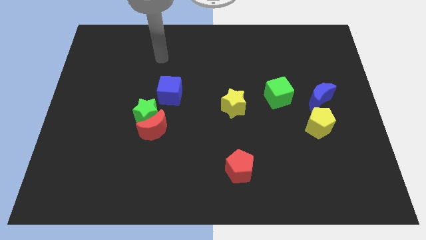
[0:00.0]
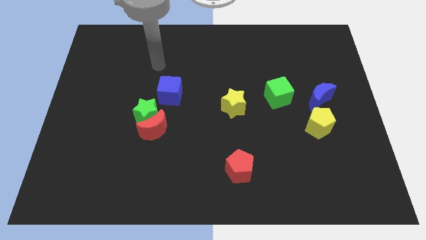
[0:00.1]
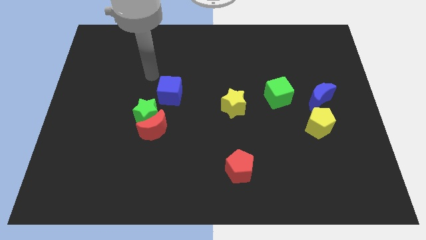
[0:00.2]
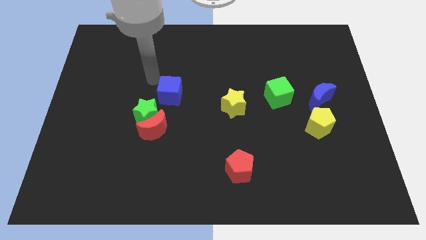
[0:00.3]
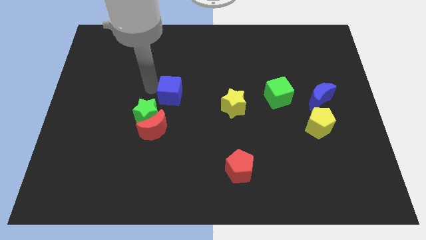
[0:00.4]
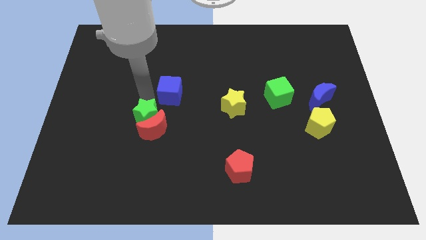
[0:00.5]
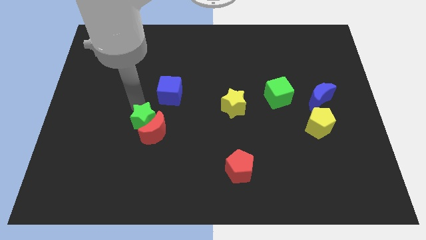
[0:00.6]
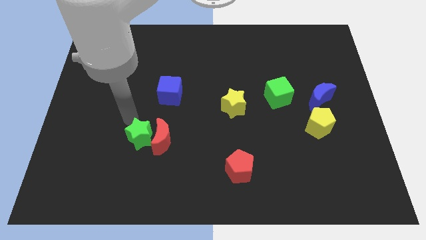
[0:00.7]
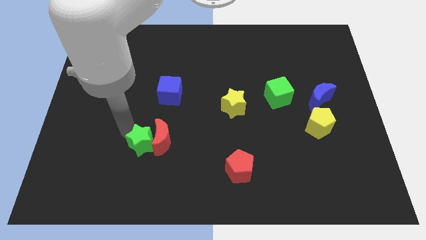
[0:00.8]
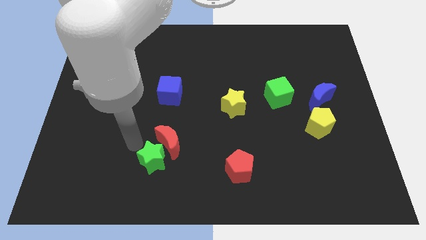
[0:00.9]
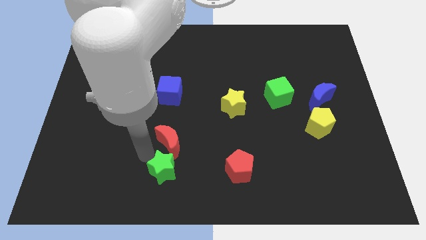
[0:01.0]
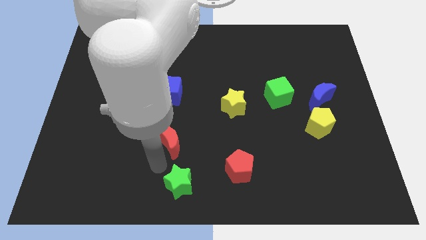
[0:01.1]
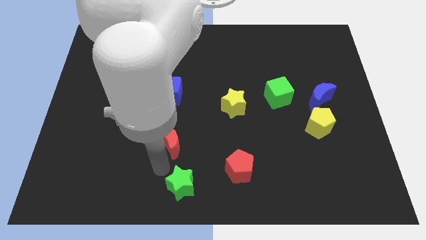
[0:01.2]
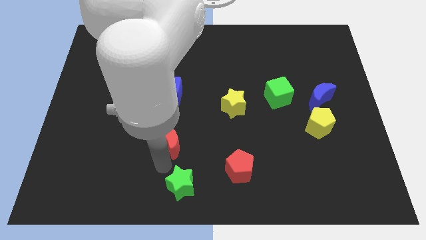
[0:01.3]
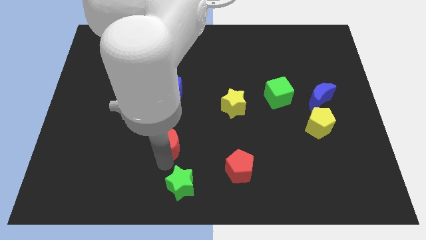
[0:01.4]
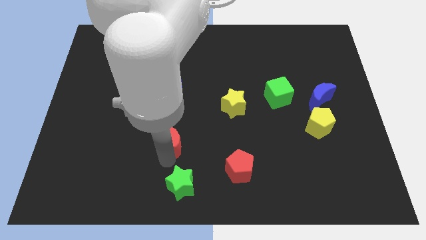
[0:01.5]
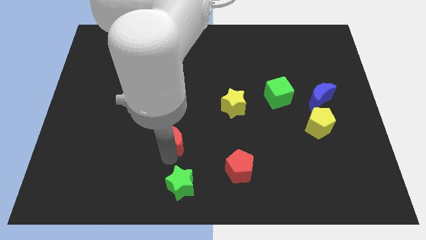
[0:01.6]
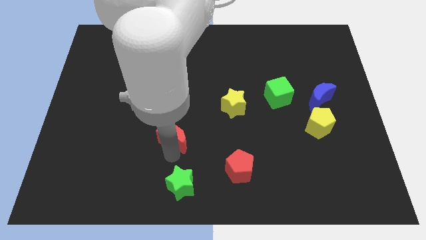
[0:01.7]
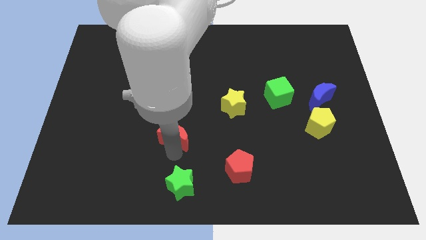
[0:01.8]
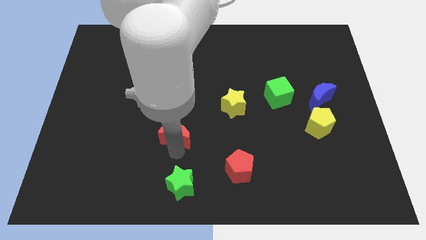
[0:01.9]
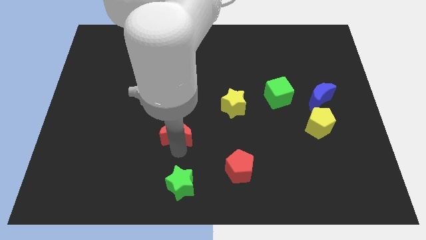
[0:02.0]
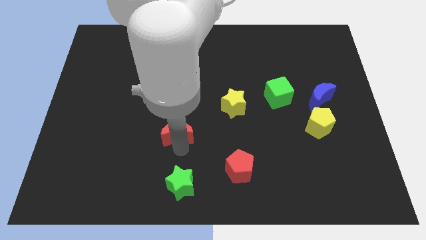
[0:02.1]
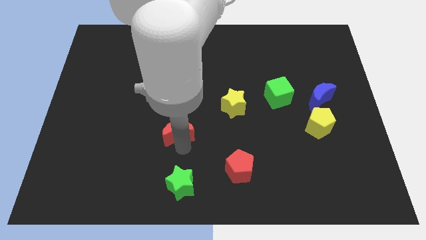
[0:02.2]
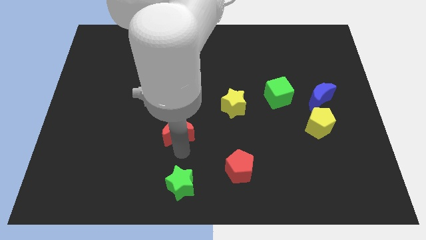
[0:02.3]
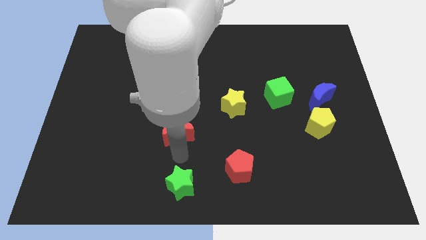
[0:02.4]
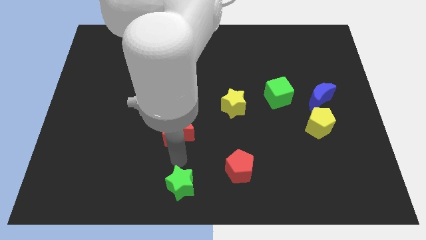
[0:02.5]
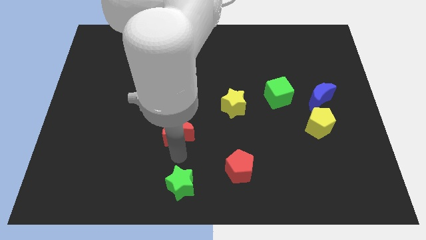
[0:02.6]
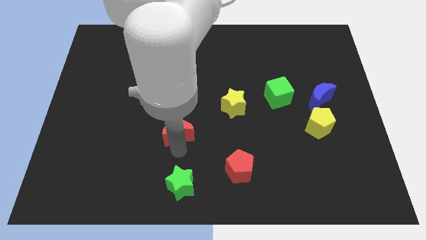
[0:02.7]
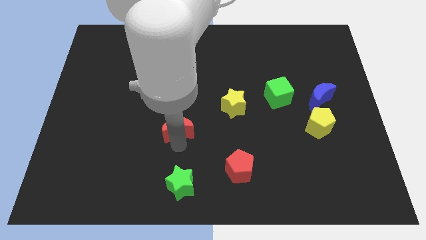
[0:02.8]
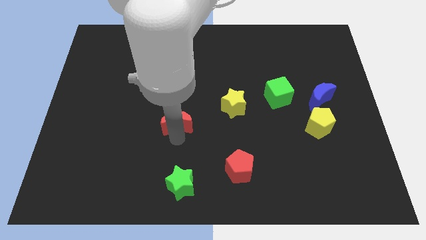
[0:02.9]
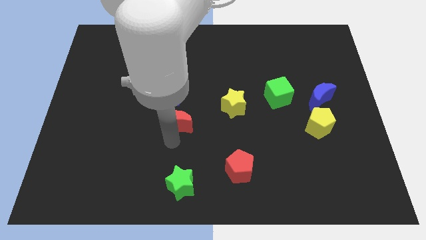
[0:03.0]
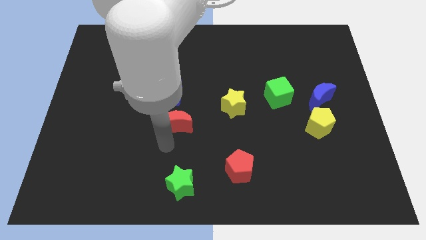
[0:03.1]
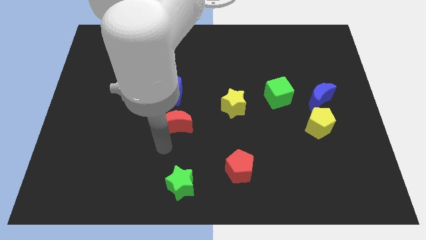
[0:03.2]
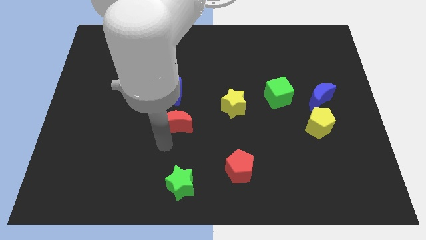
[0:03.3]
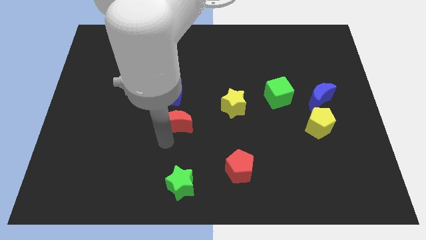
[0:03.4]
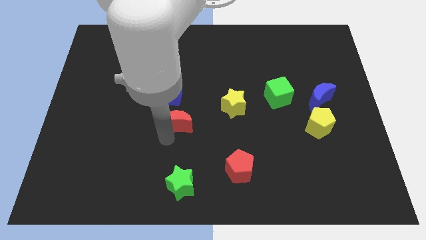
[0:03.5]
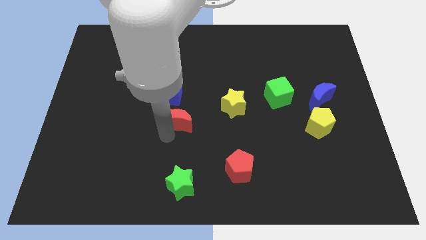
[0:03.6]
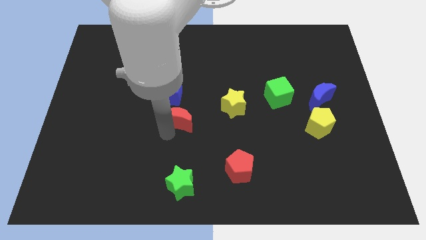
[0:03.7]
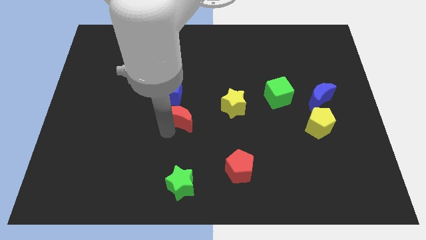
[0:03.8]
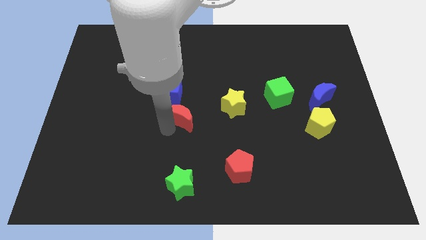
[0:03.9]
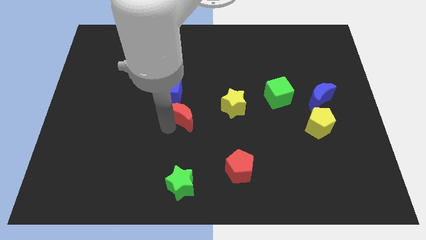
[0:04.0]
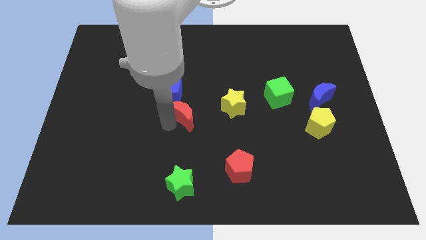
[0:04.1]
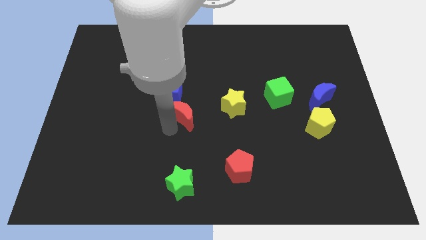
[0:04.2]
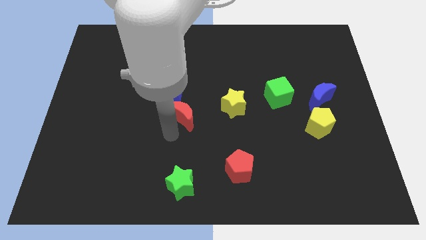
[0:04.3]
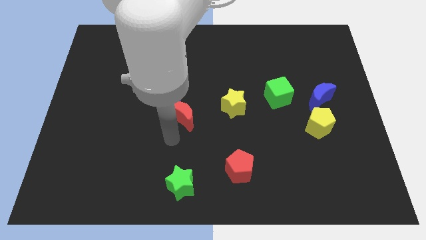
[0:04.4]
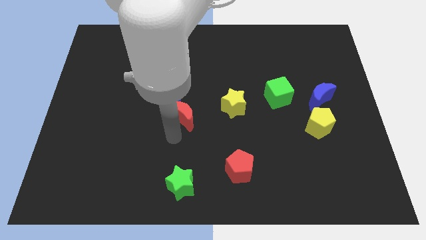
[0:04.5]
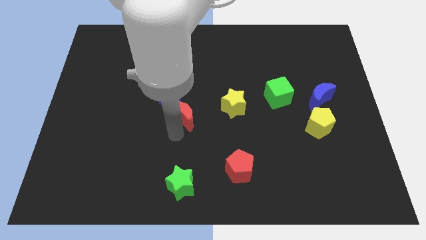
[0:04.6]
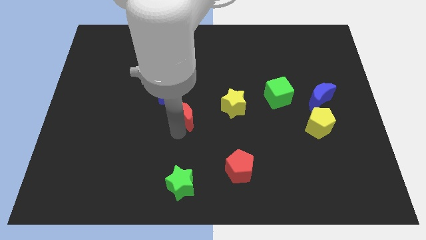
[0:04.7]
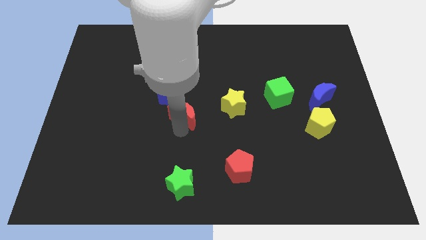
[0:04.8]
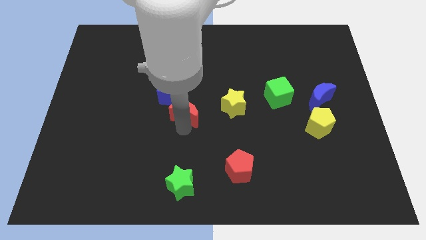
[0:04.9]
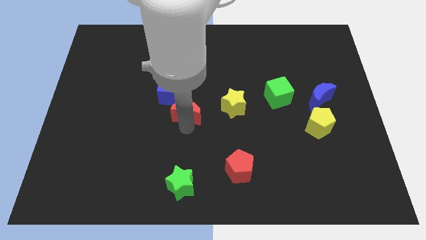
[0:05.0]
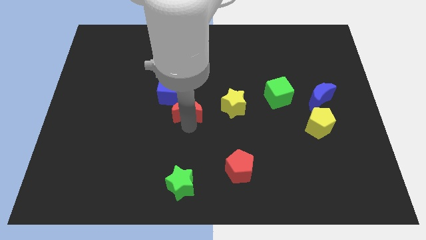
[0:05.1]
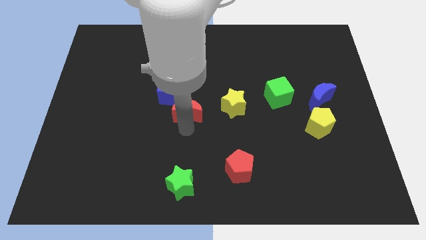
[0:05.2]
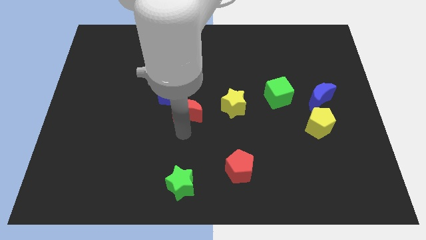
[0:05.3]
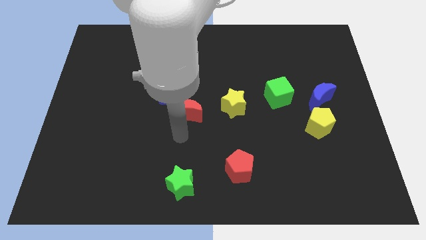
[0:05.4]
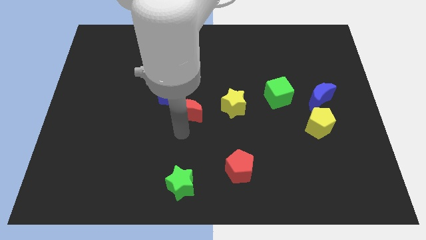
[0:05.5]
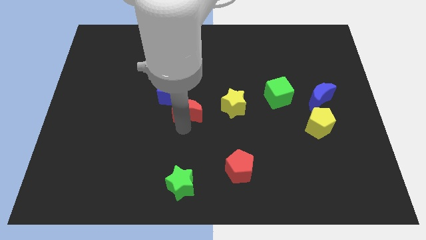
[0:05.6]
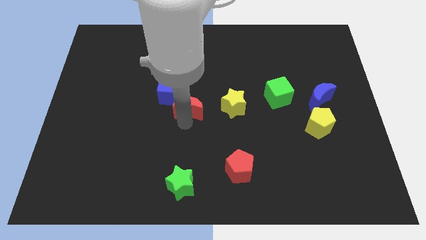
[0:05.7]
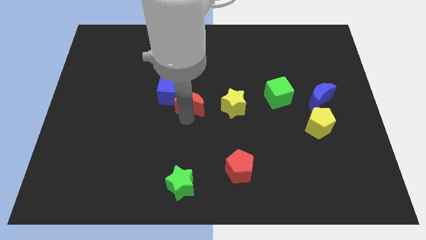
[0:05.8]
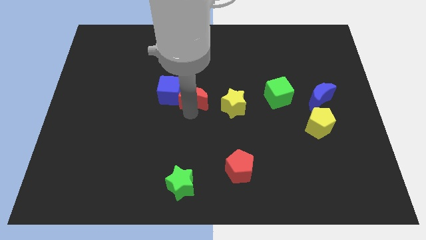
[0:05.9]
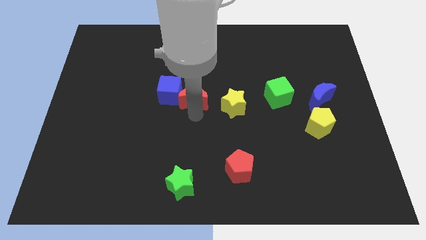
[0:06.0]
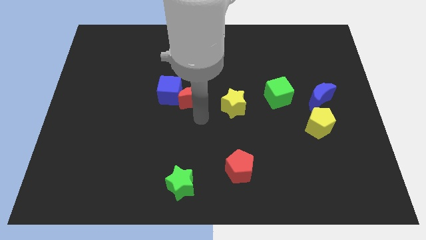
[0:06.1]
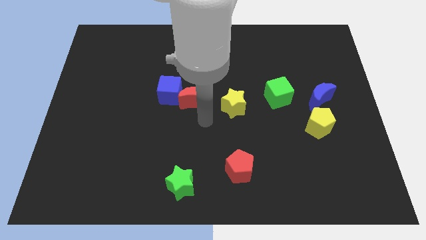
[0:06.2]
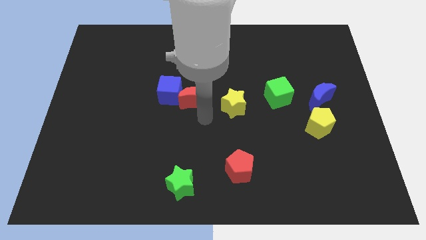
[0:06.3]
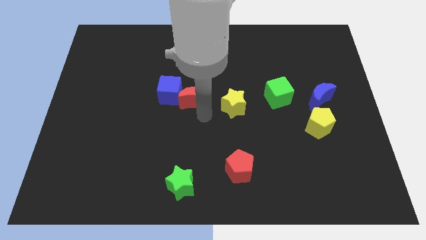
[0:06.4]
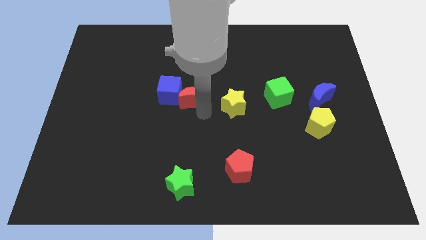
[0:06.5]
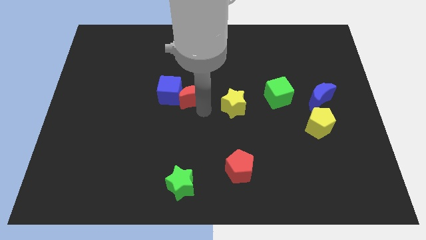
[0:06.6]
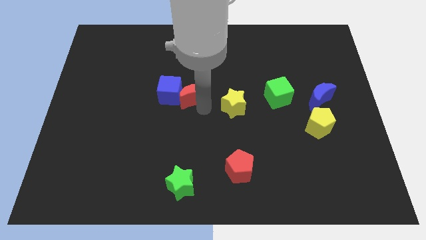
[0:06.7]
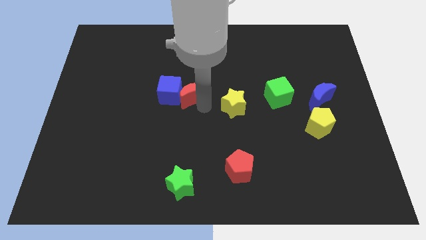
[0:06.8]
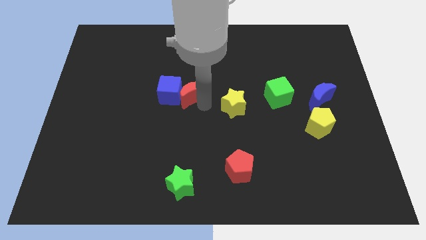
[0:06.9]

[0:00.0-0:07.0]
slide the red moon somewhat up

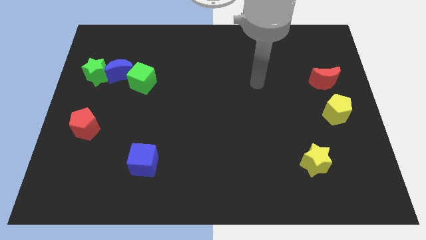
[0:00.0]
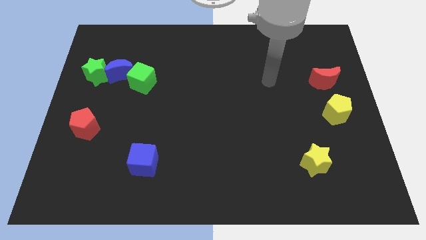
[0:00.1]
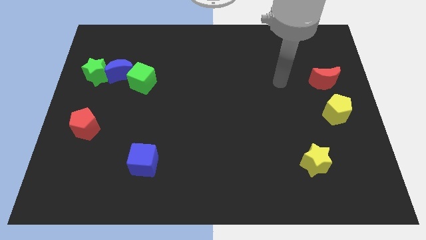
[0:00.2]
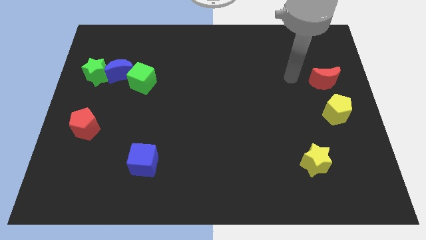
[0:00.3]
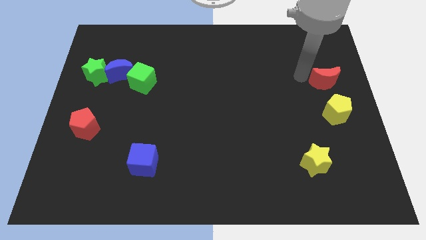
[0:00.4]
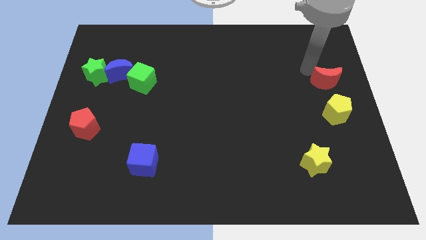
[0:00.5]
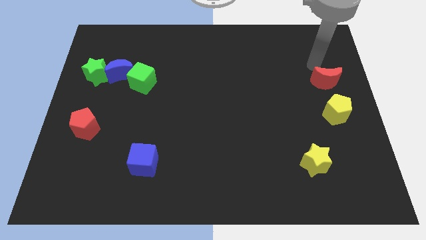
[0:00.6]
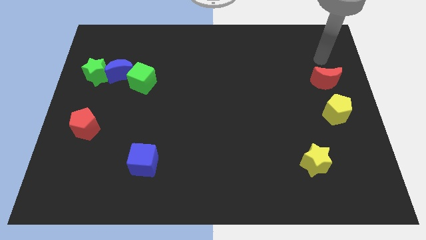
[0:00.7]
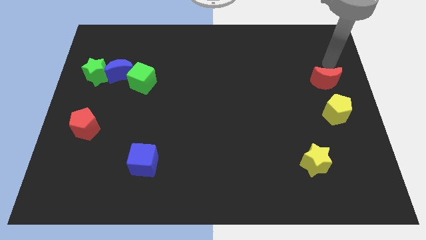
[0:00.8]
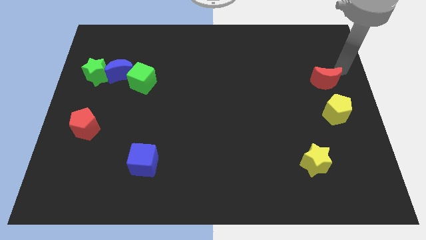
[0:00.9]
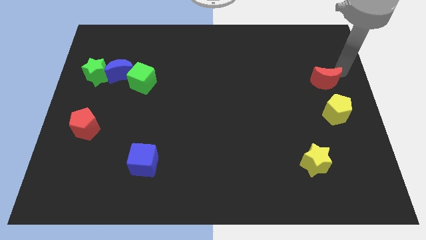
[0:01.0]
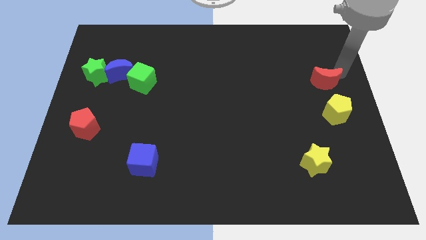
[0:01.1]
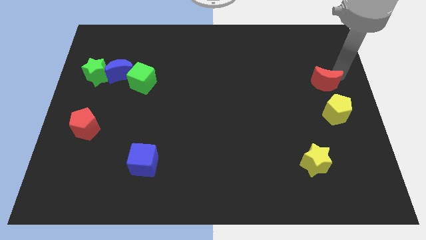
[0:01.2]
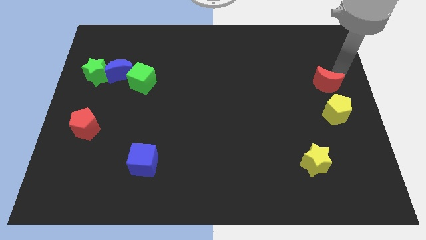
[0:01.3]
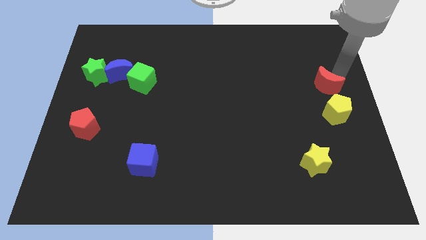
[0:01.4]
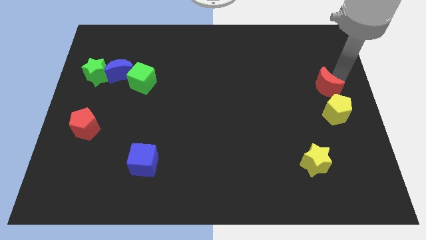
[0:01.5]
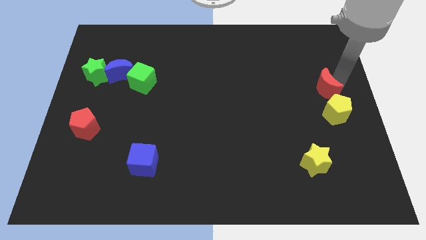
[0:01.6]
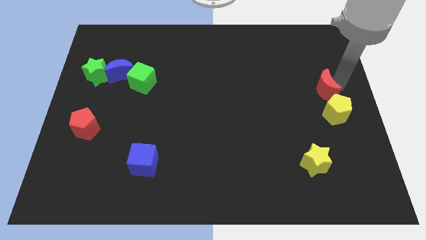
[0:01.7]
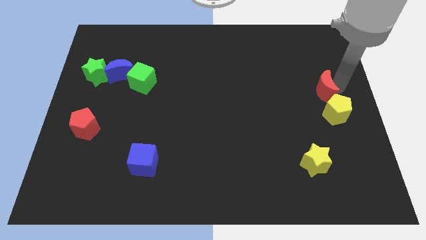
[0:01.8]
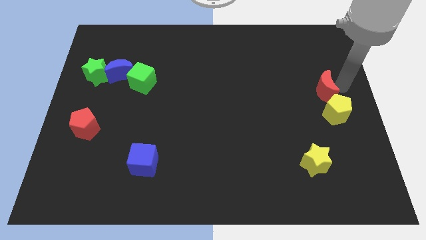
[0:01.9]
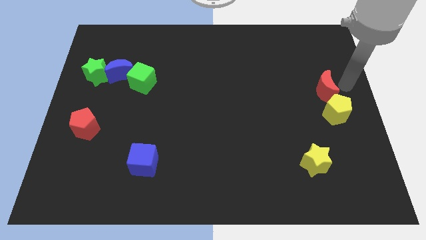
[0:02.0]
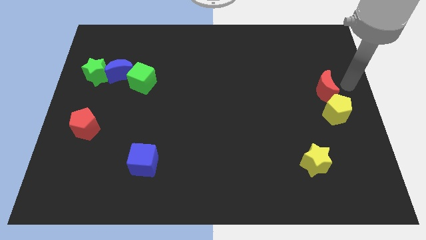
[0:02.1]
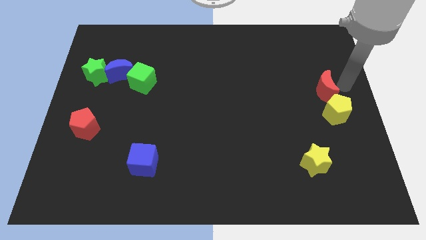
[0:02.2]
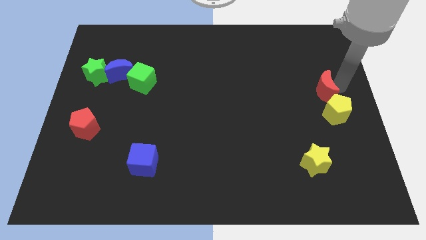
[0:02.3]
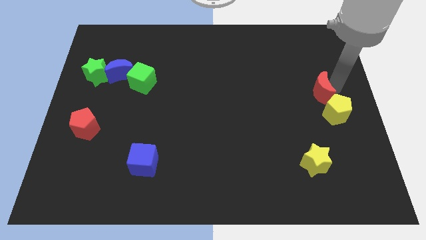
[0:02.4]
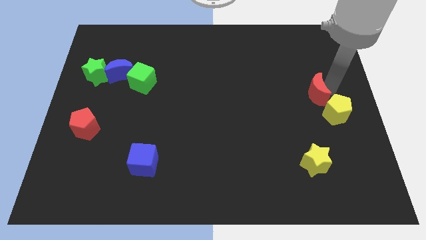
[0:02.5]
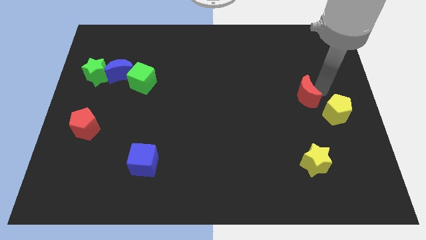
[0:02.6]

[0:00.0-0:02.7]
slightly move the red moon downwards and to the left diagonally
